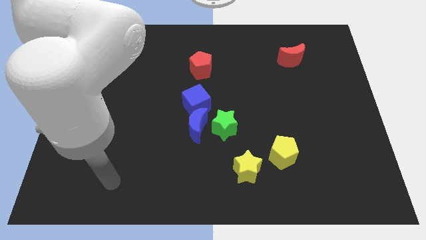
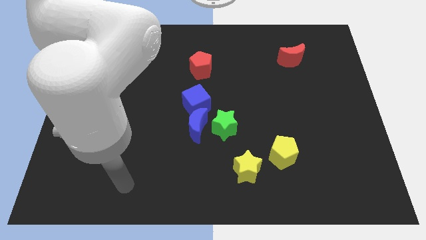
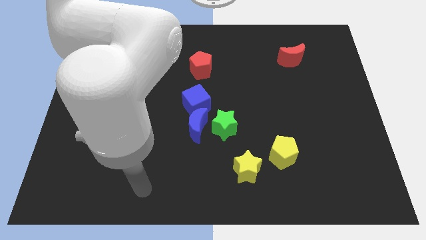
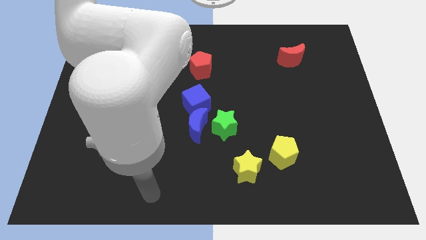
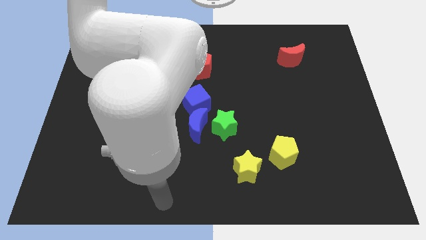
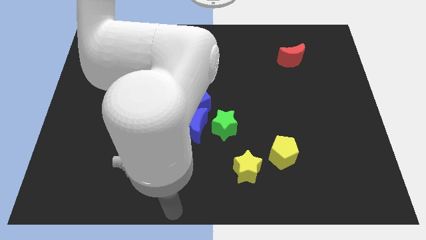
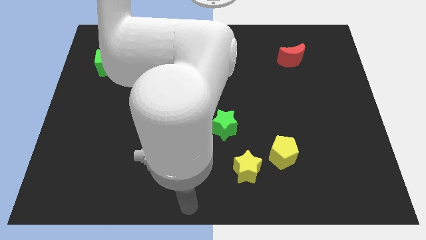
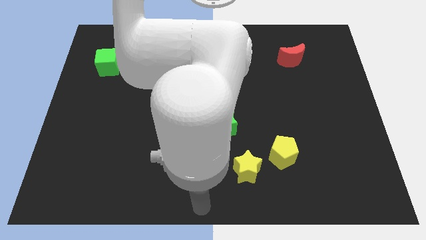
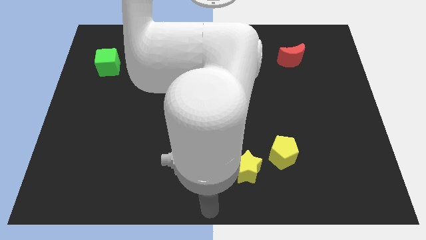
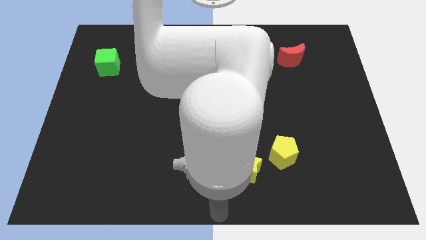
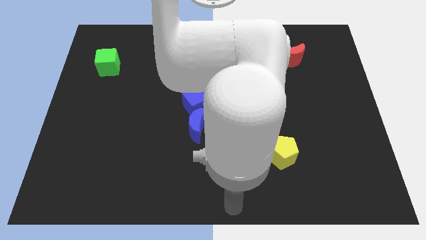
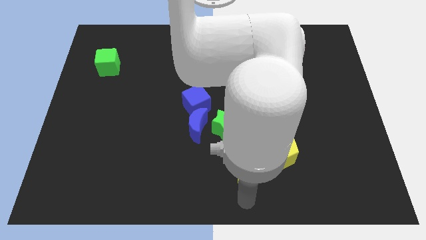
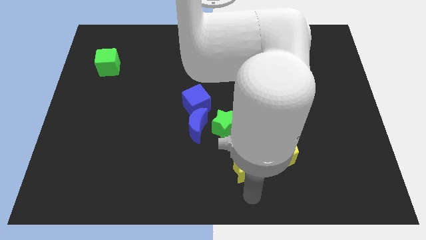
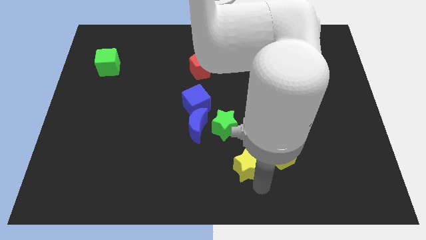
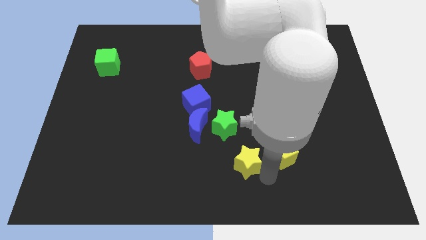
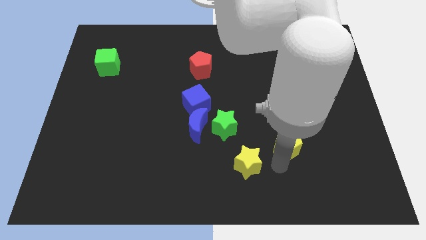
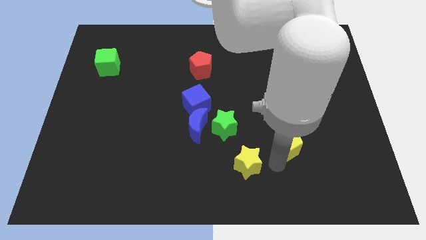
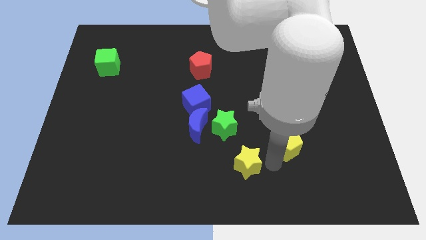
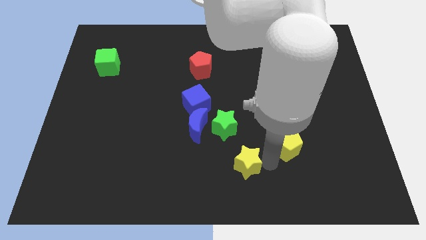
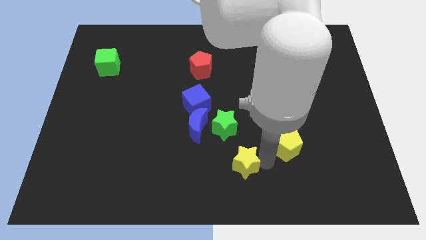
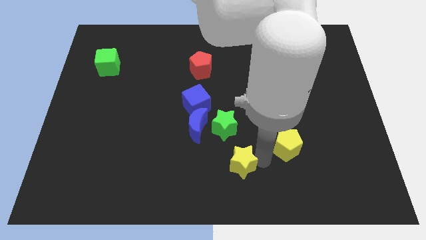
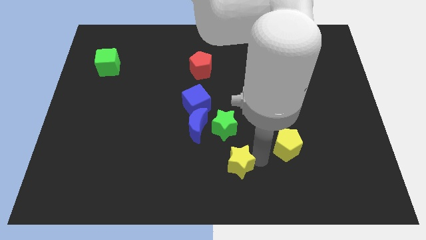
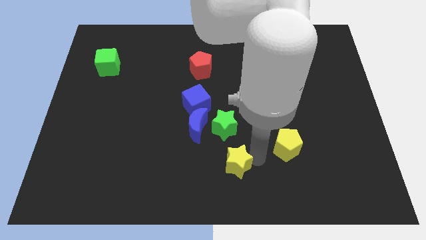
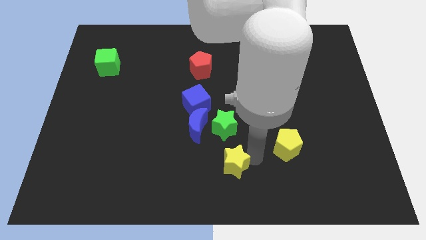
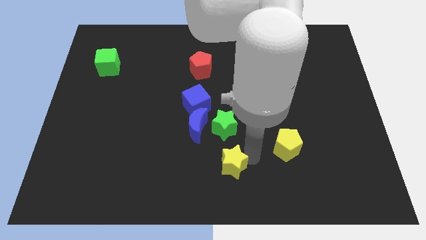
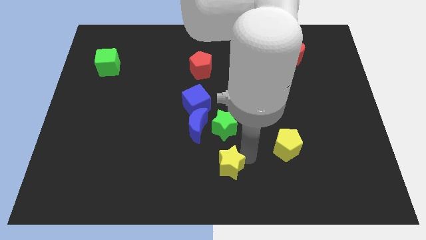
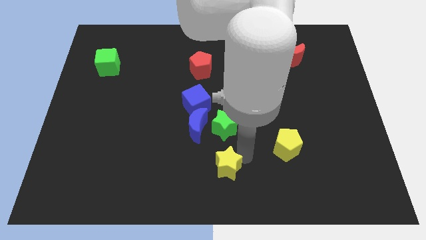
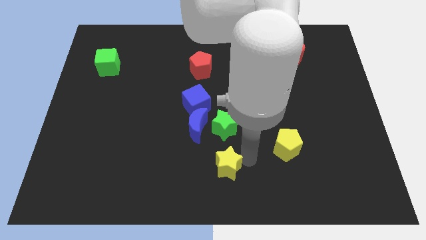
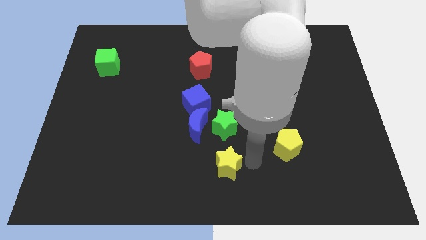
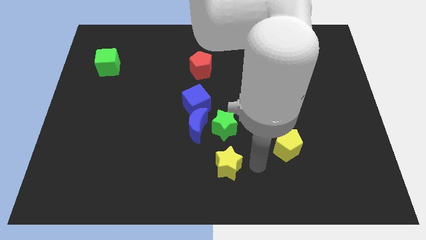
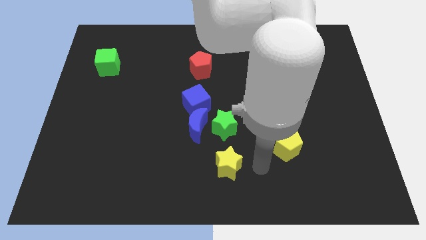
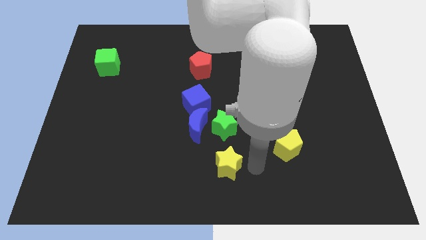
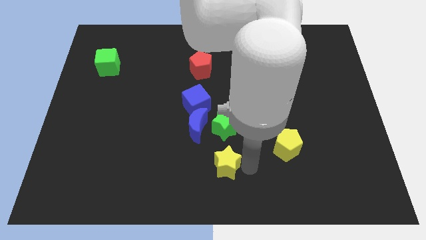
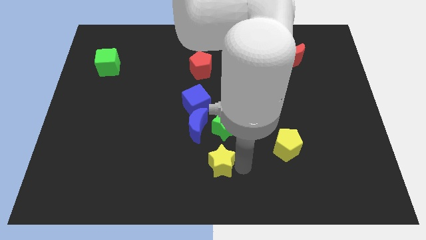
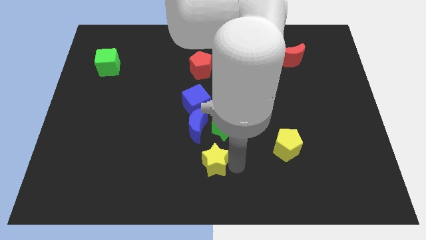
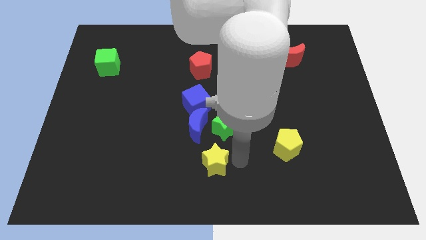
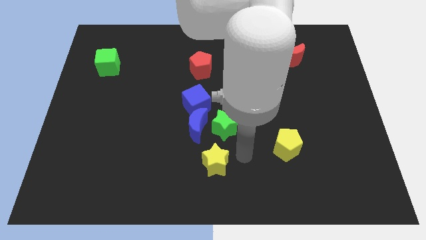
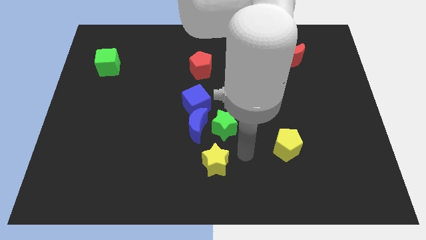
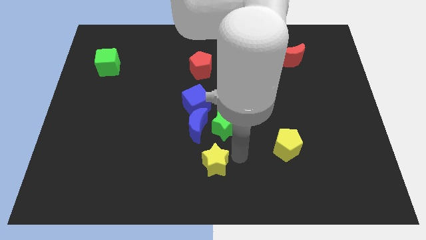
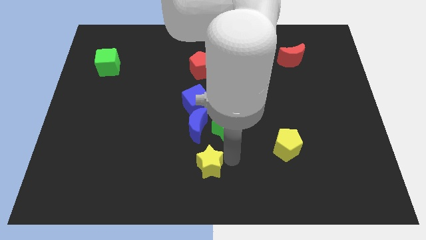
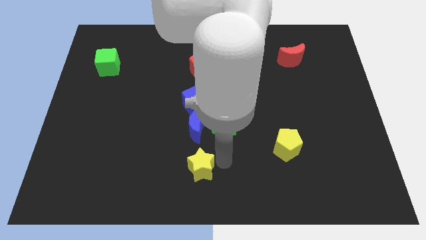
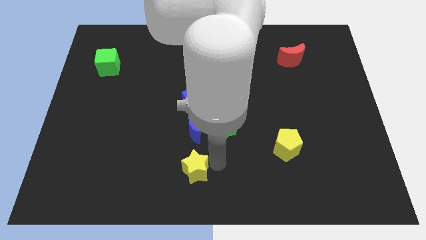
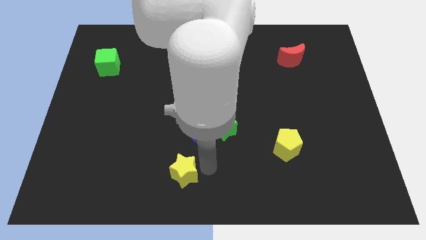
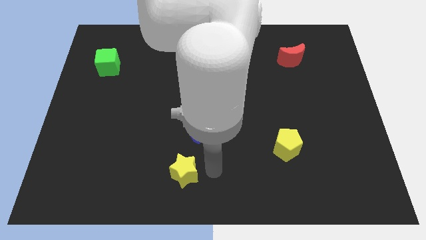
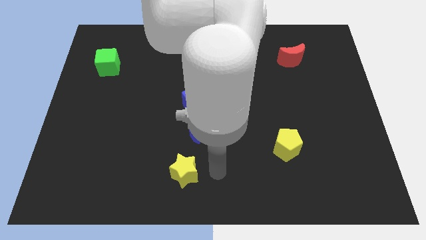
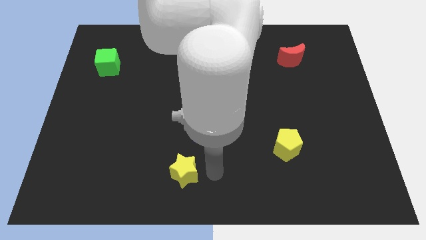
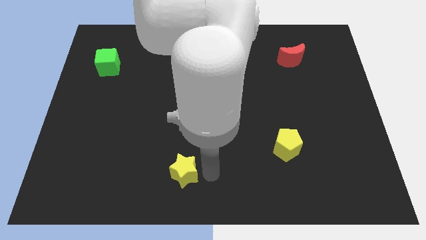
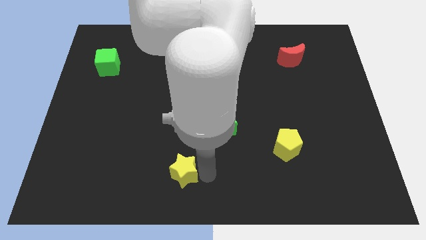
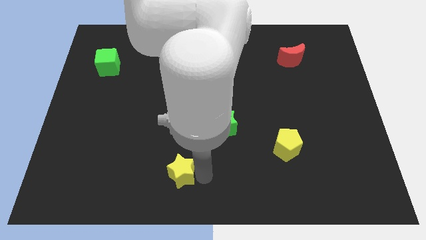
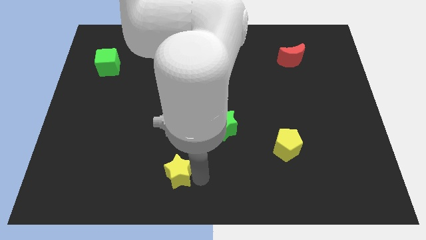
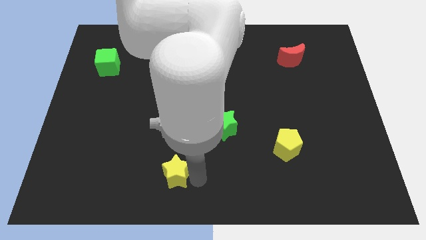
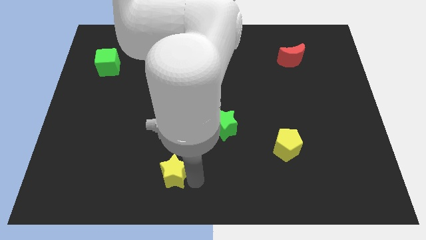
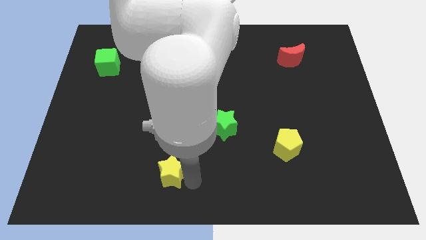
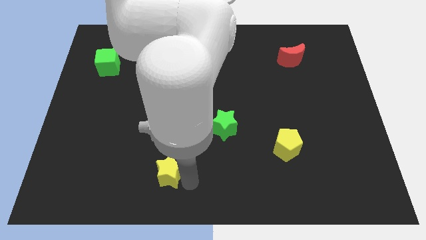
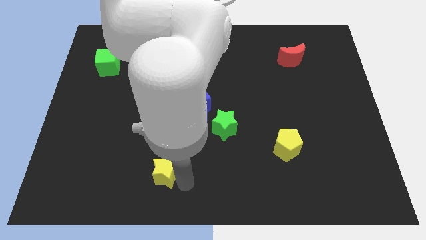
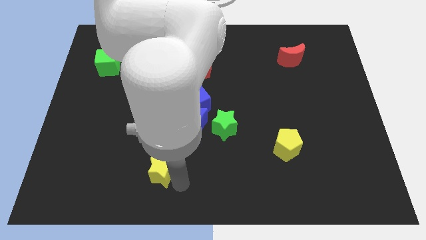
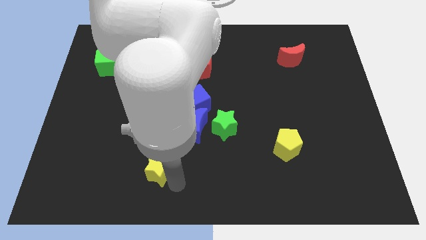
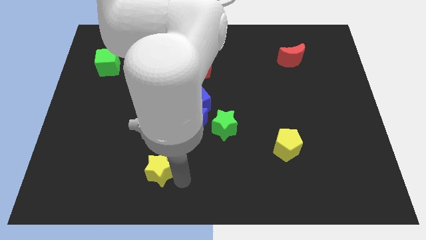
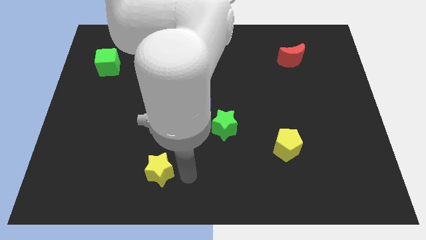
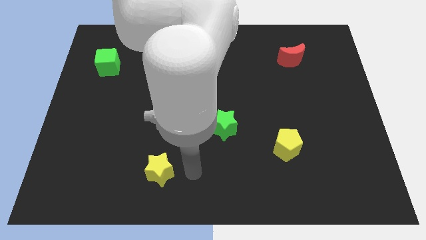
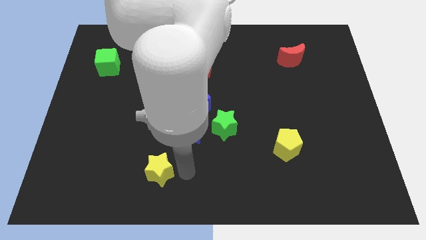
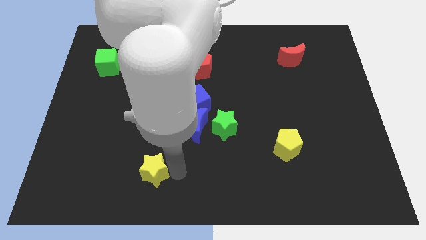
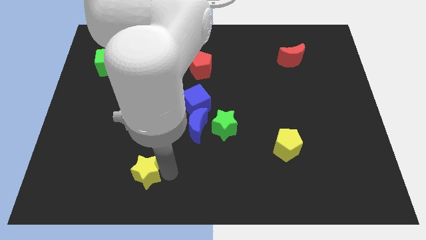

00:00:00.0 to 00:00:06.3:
slide the yellow star left

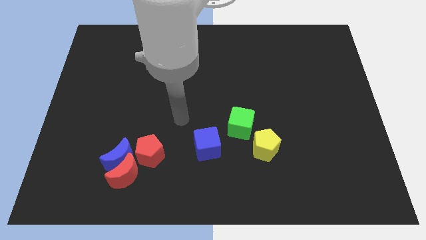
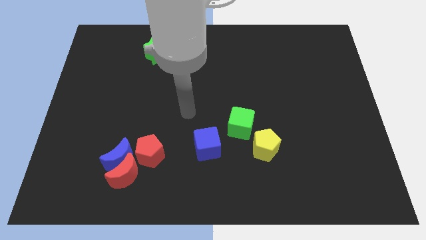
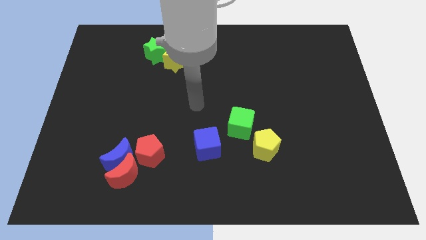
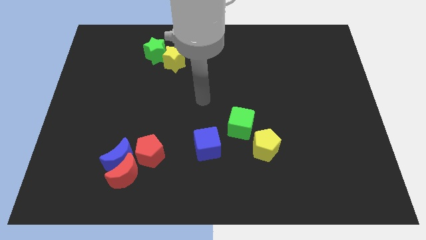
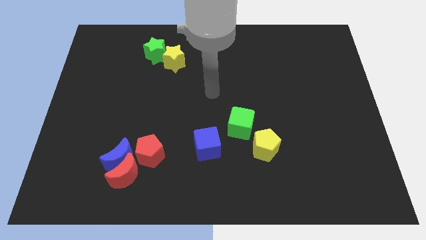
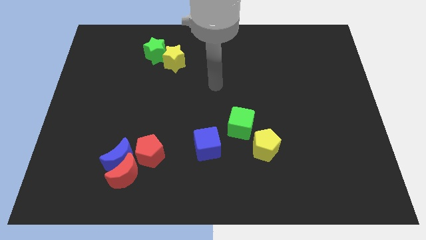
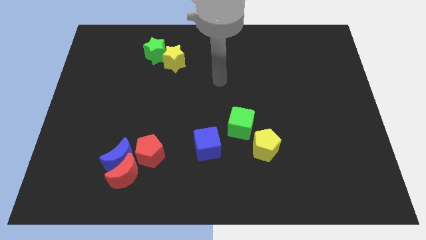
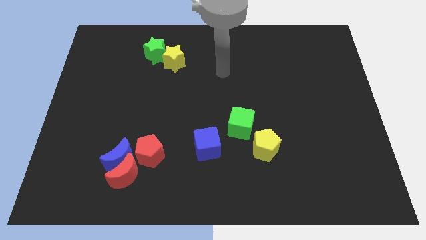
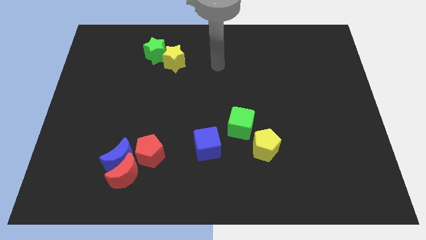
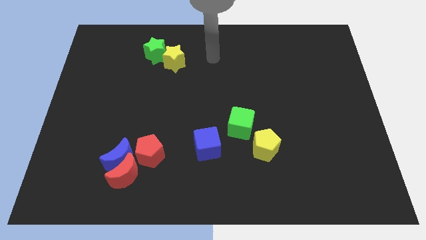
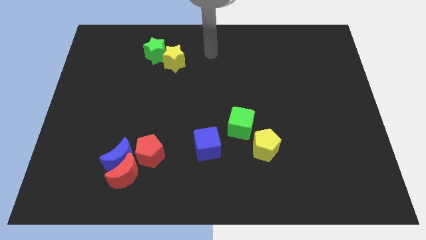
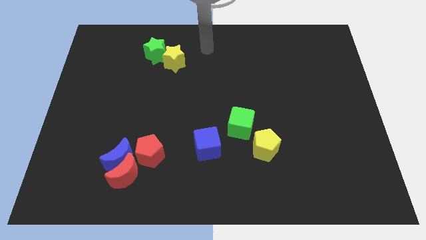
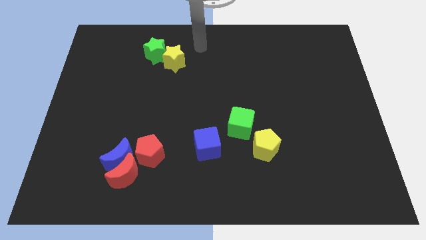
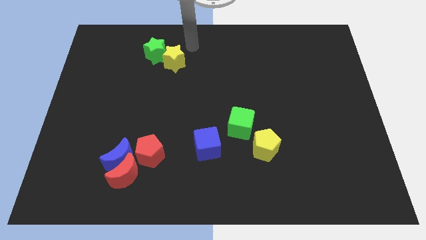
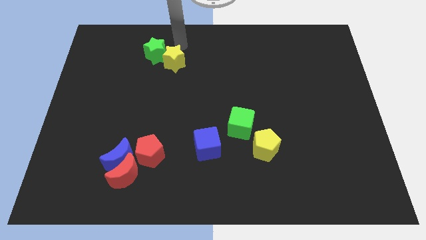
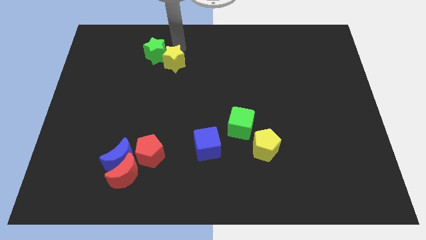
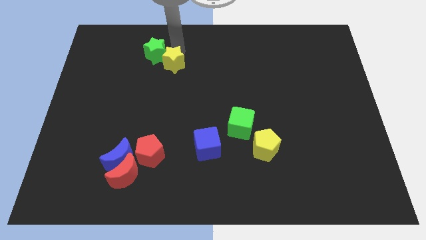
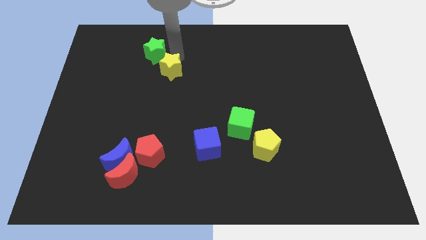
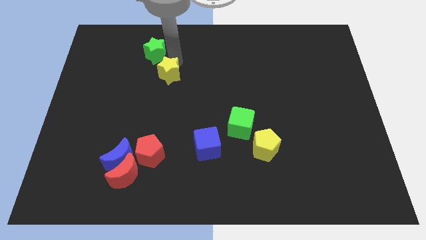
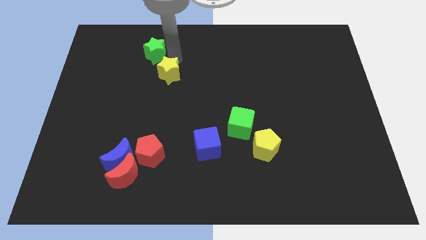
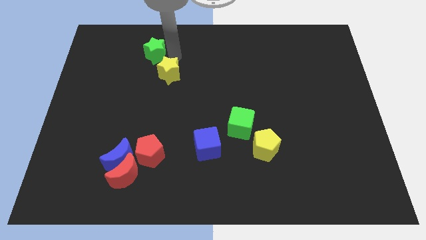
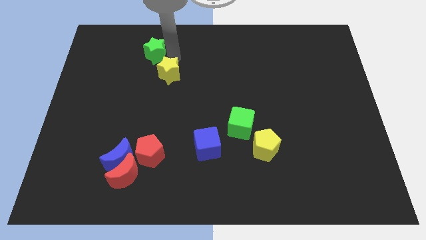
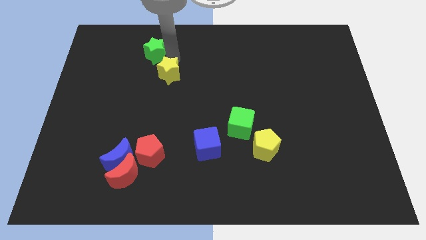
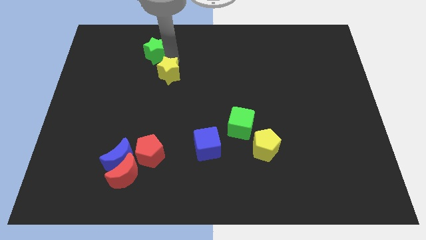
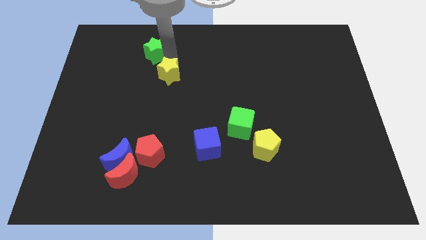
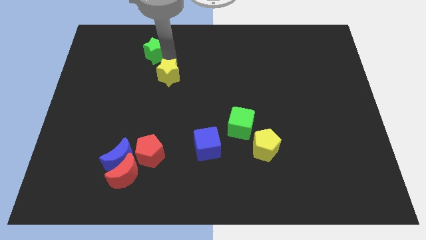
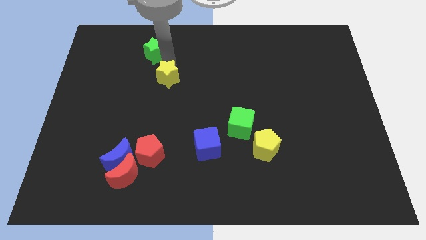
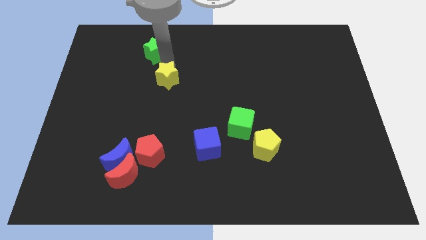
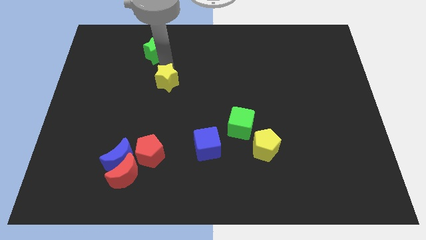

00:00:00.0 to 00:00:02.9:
slide the yellow star downwards slightly
